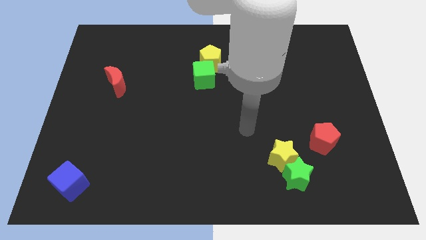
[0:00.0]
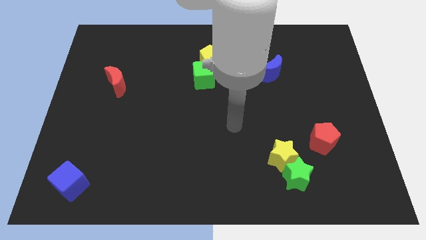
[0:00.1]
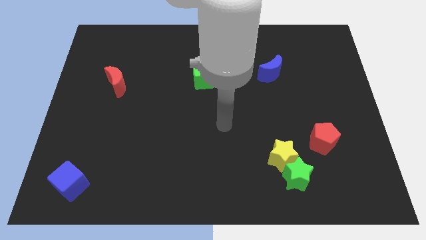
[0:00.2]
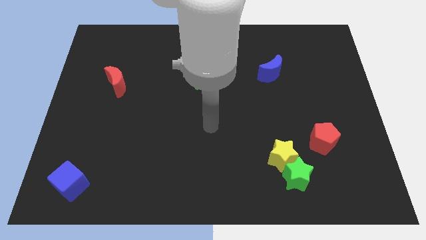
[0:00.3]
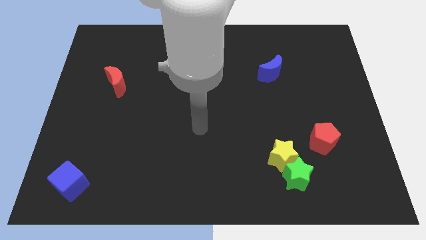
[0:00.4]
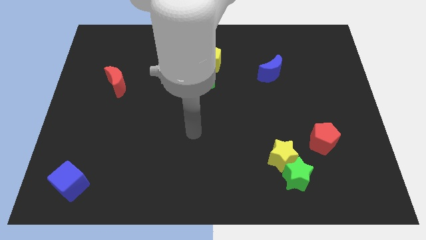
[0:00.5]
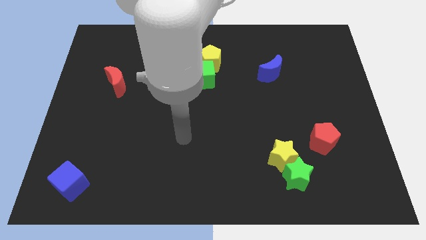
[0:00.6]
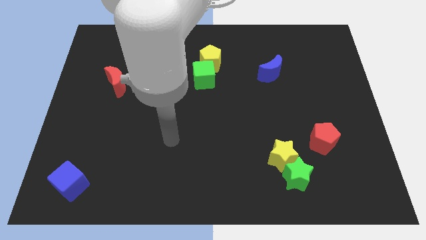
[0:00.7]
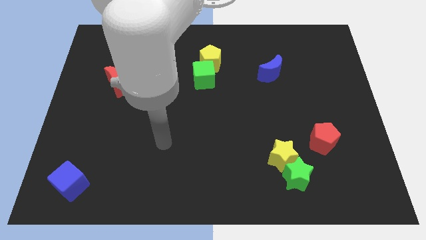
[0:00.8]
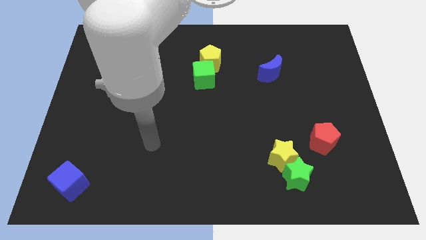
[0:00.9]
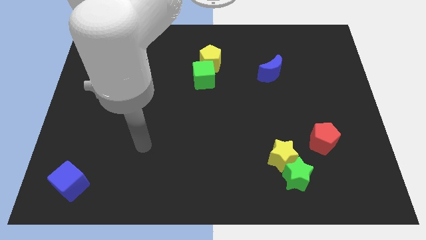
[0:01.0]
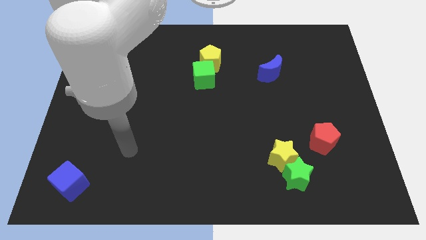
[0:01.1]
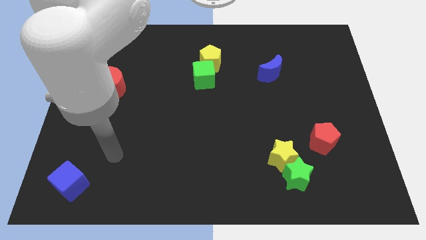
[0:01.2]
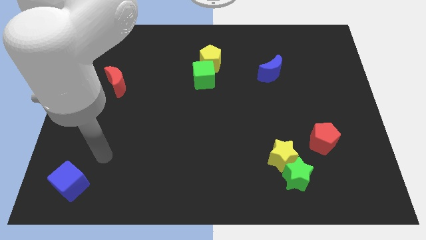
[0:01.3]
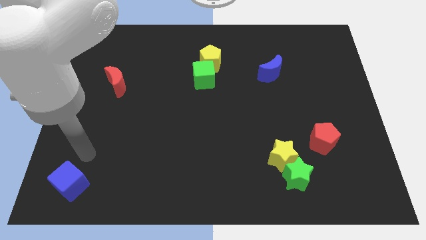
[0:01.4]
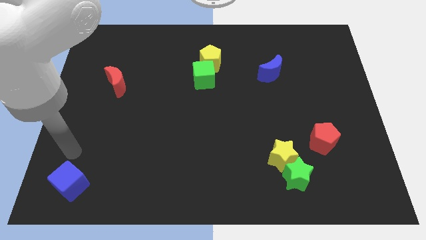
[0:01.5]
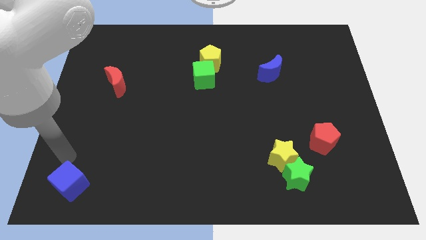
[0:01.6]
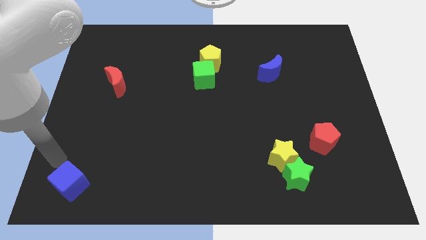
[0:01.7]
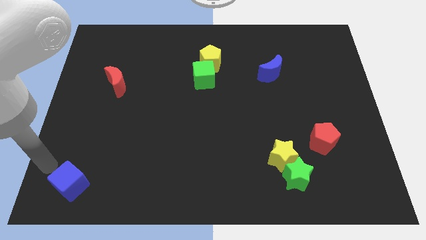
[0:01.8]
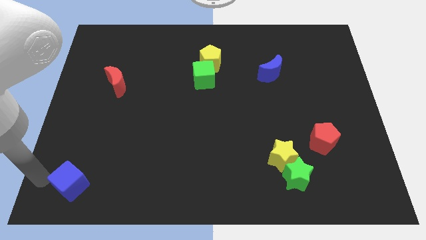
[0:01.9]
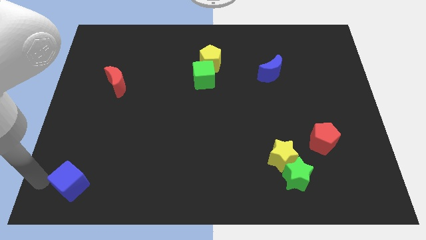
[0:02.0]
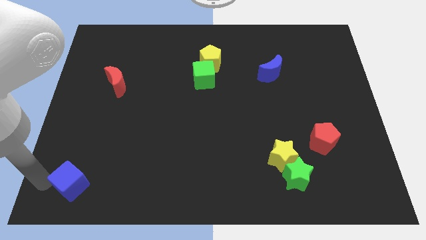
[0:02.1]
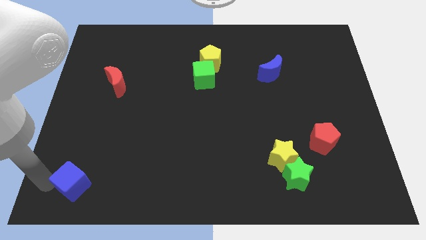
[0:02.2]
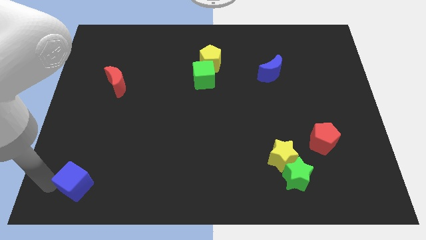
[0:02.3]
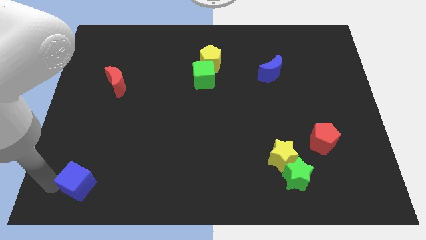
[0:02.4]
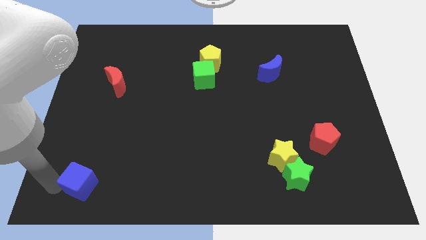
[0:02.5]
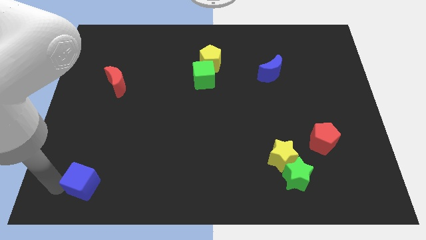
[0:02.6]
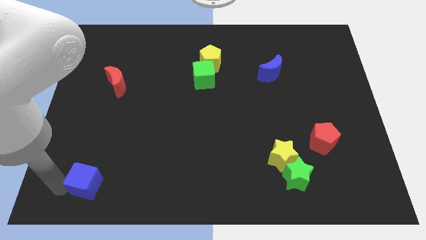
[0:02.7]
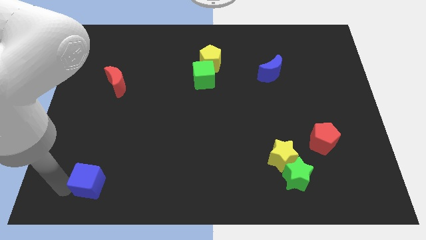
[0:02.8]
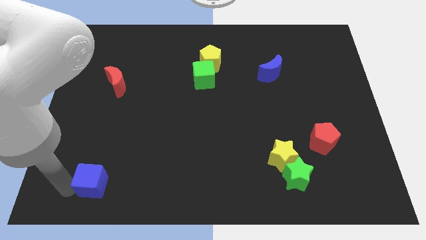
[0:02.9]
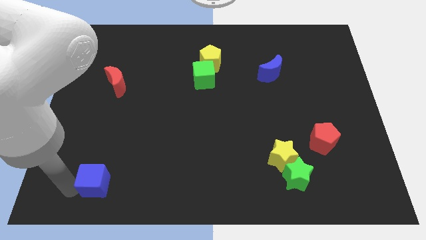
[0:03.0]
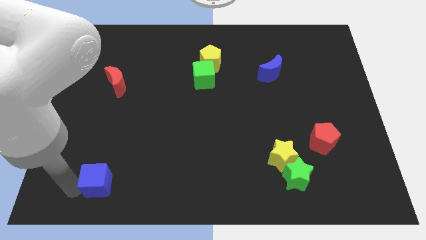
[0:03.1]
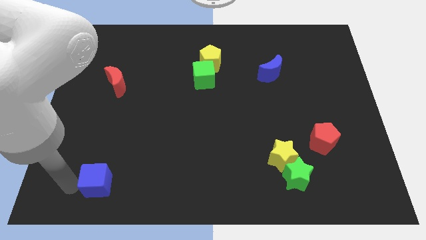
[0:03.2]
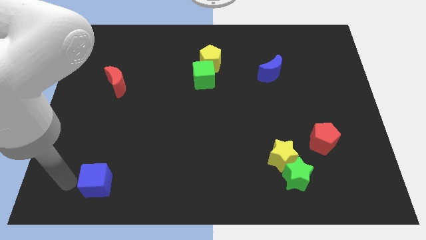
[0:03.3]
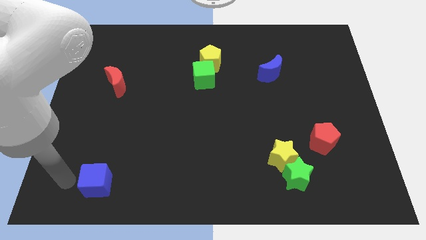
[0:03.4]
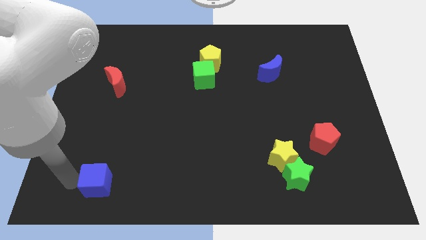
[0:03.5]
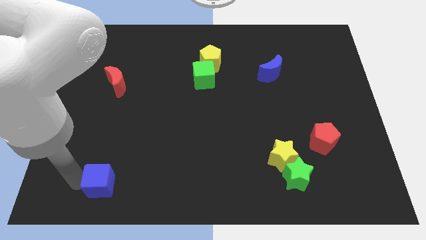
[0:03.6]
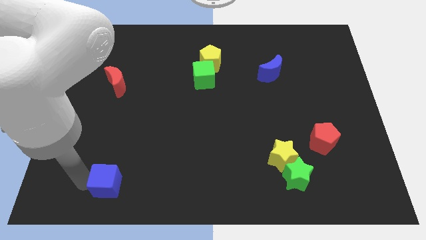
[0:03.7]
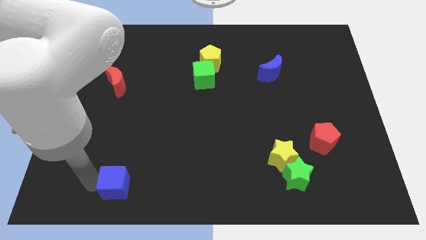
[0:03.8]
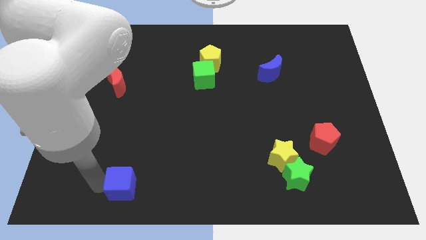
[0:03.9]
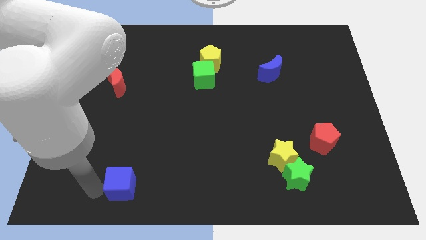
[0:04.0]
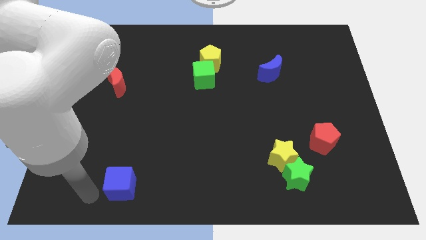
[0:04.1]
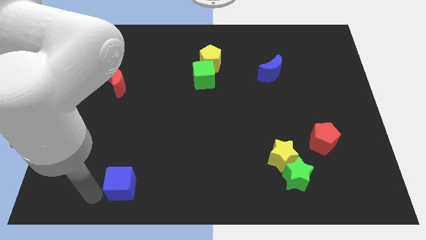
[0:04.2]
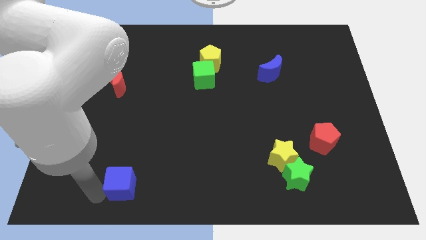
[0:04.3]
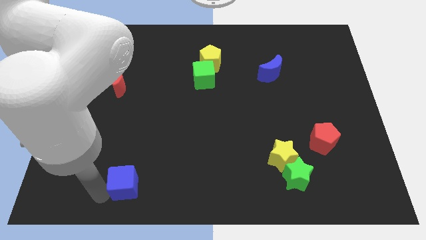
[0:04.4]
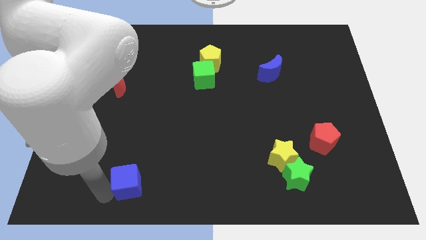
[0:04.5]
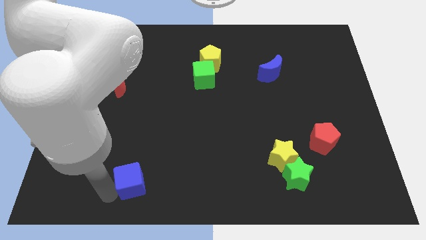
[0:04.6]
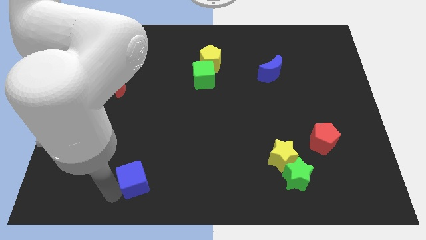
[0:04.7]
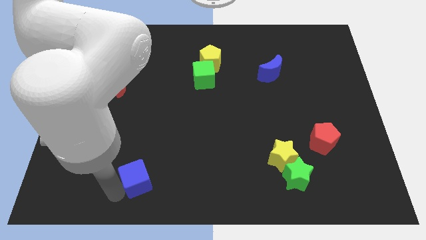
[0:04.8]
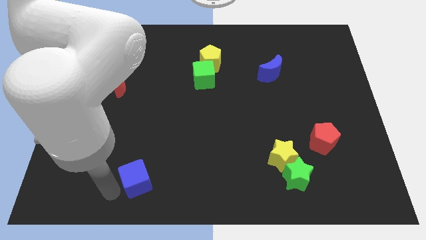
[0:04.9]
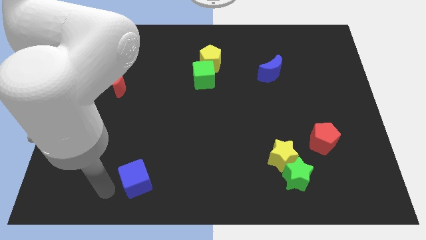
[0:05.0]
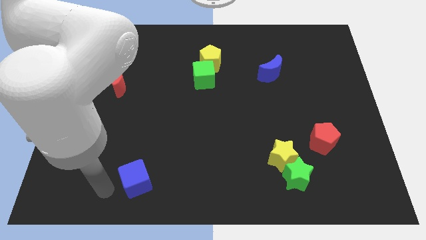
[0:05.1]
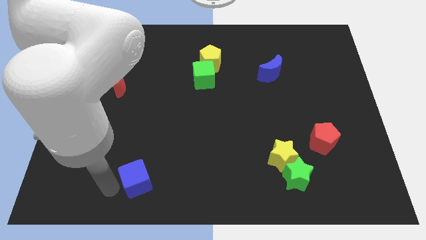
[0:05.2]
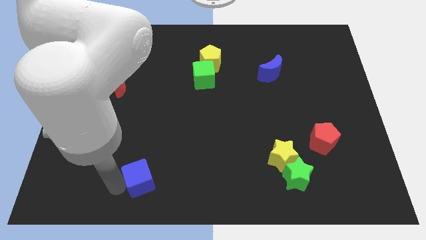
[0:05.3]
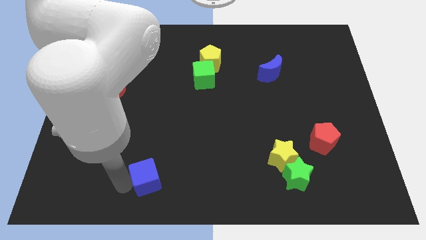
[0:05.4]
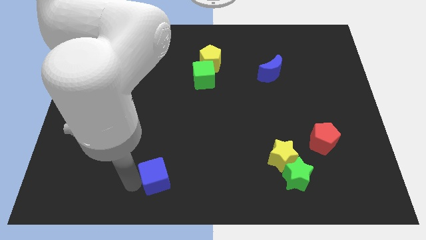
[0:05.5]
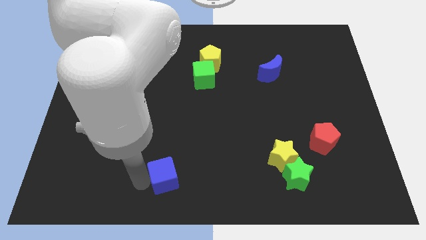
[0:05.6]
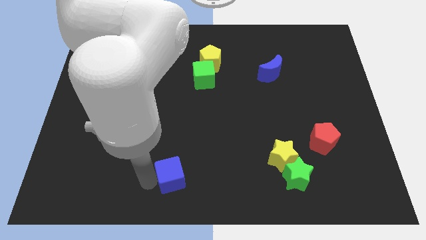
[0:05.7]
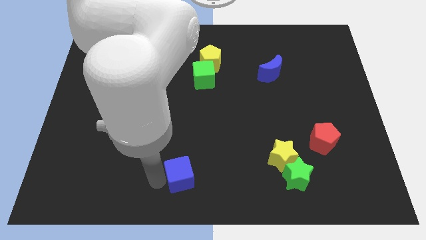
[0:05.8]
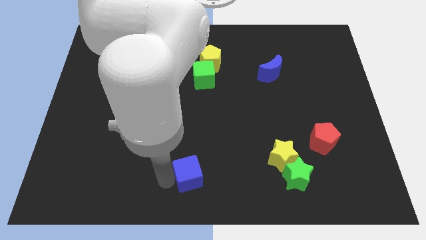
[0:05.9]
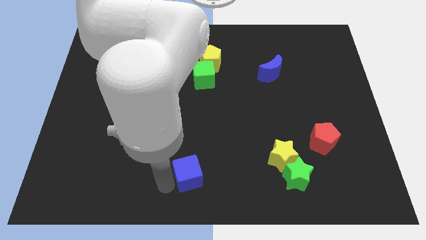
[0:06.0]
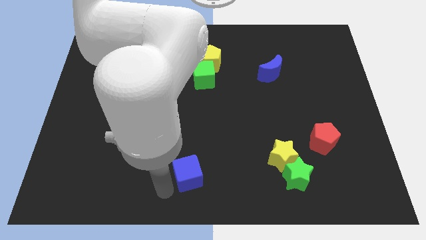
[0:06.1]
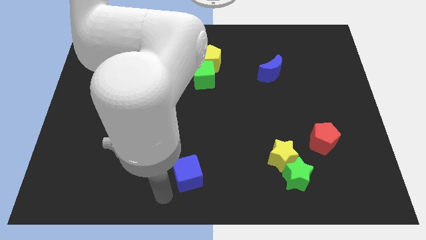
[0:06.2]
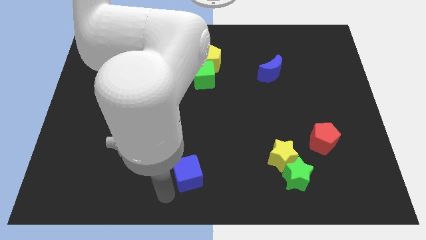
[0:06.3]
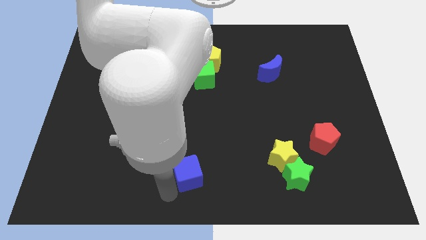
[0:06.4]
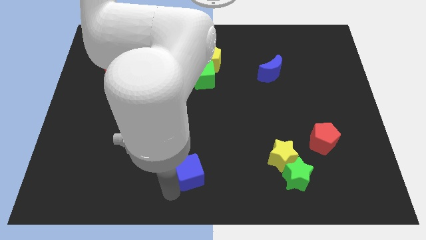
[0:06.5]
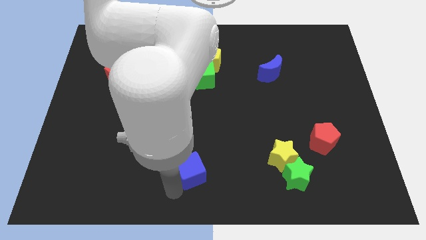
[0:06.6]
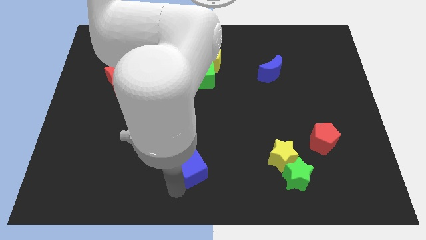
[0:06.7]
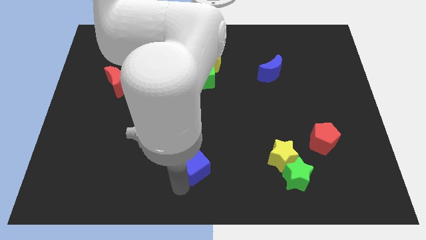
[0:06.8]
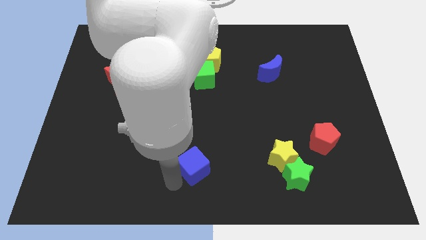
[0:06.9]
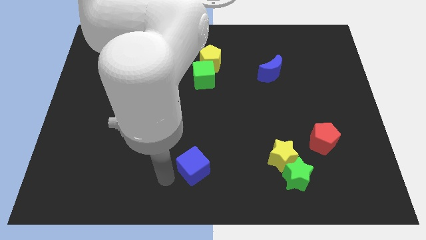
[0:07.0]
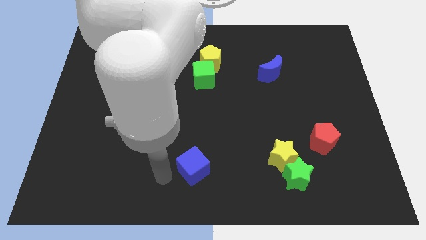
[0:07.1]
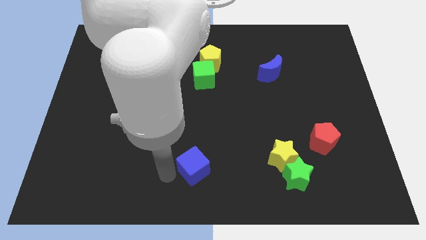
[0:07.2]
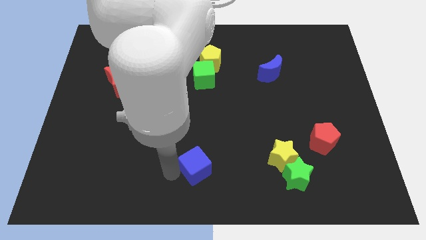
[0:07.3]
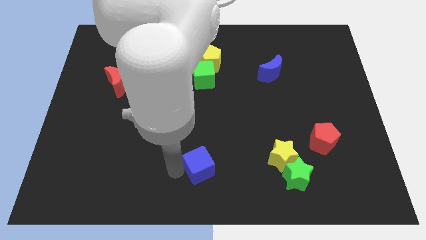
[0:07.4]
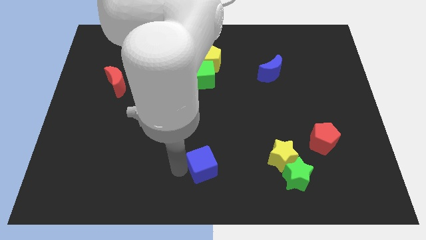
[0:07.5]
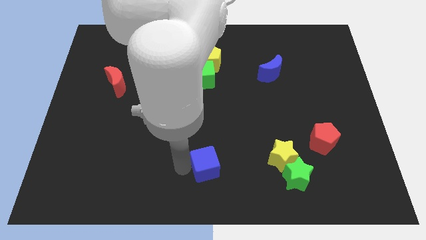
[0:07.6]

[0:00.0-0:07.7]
put the blue cube just left of the yellow star
